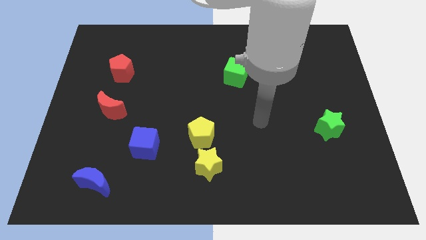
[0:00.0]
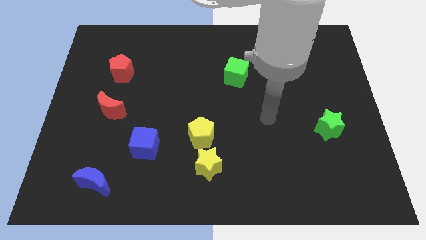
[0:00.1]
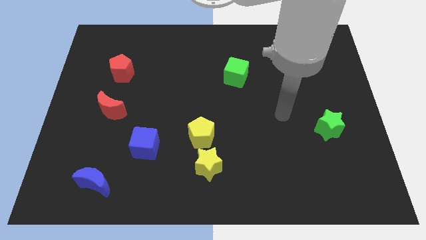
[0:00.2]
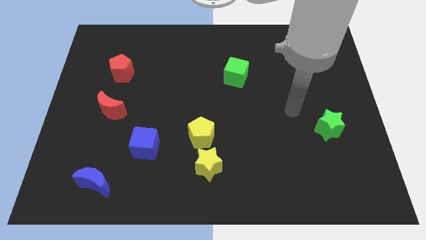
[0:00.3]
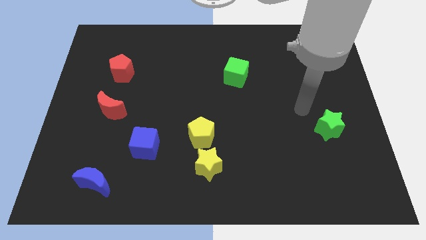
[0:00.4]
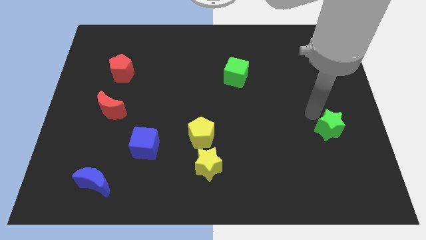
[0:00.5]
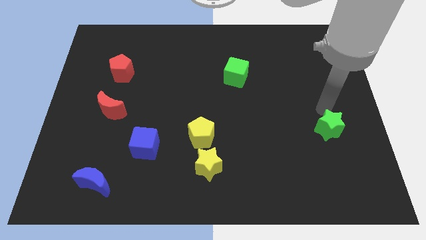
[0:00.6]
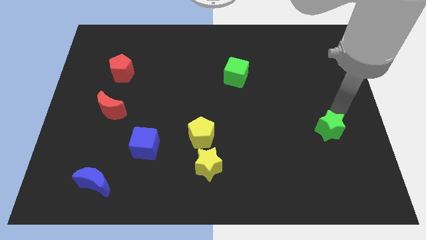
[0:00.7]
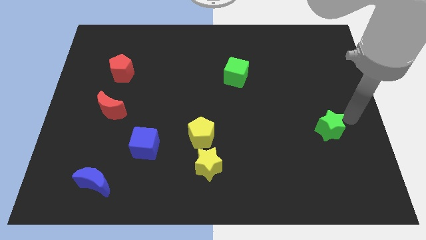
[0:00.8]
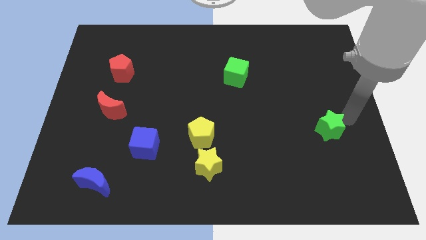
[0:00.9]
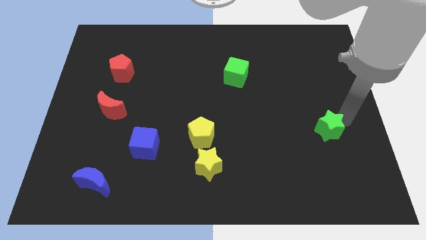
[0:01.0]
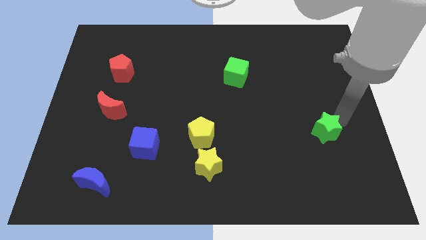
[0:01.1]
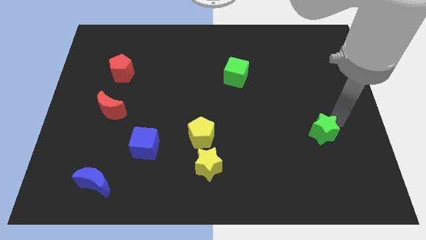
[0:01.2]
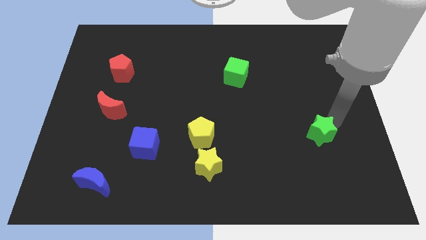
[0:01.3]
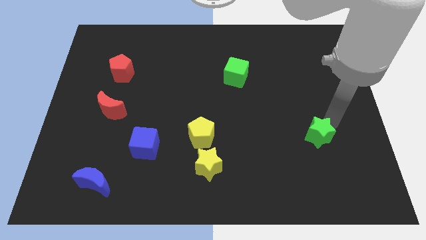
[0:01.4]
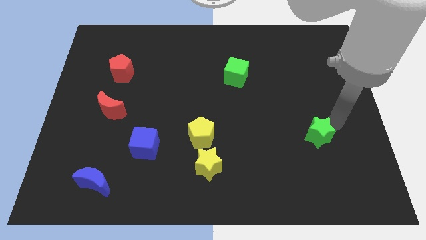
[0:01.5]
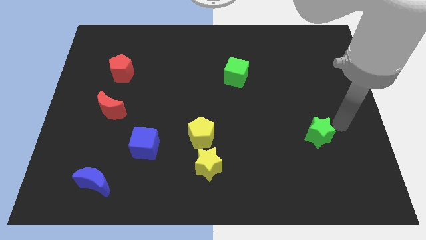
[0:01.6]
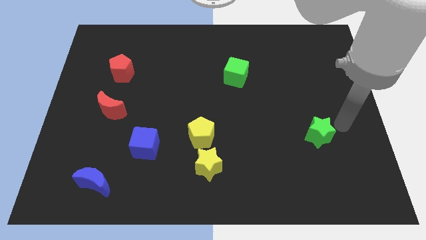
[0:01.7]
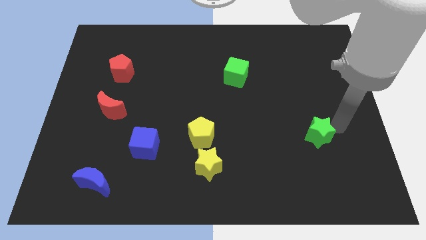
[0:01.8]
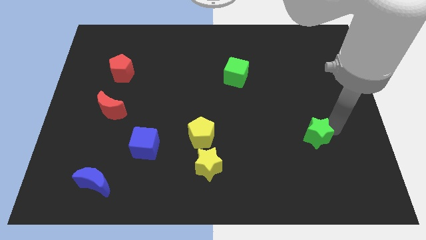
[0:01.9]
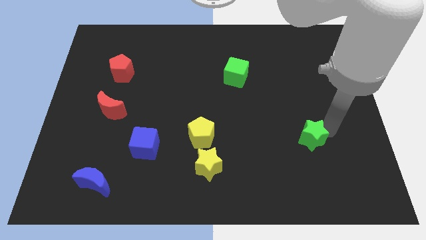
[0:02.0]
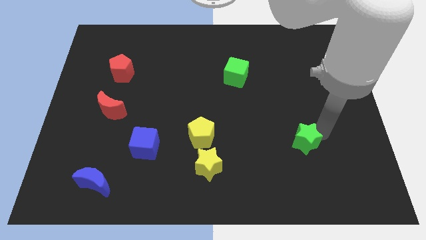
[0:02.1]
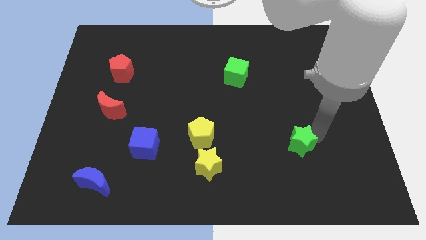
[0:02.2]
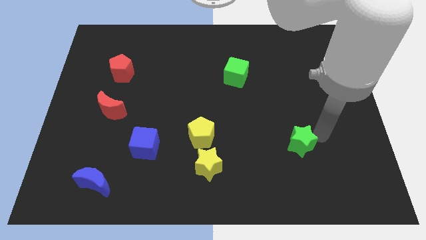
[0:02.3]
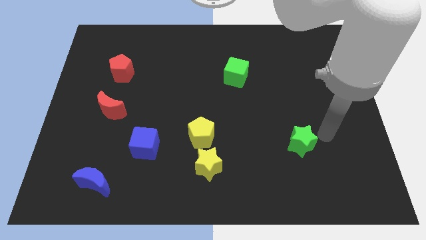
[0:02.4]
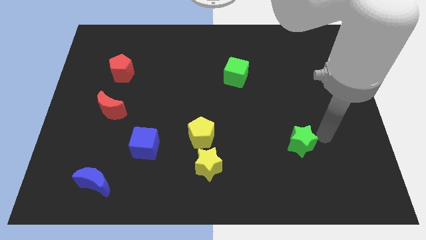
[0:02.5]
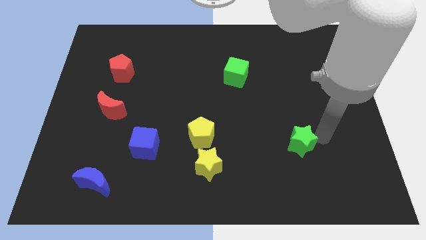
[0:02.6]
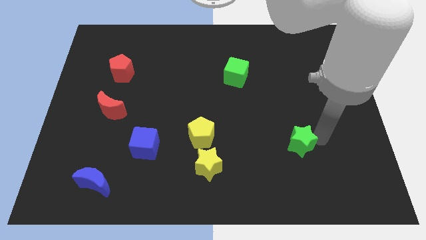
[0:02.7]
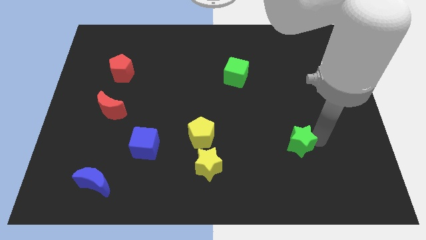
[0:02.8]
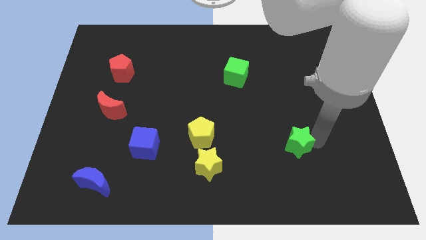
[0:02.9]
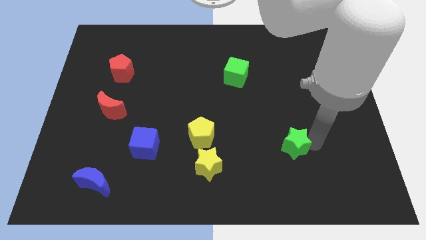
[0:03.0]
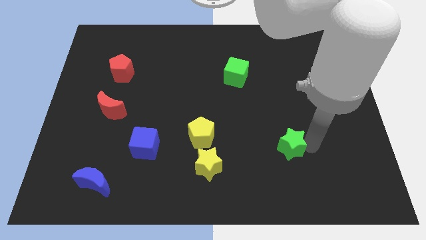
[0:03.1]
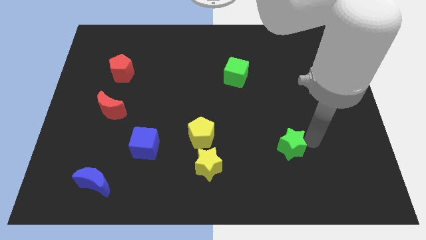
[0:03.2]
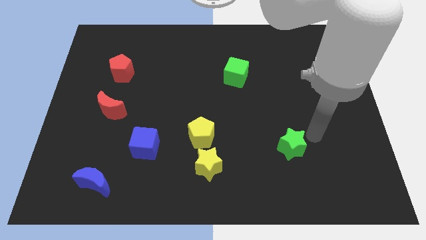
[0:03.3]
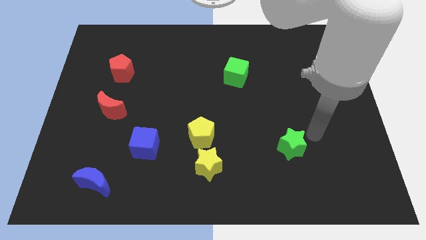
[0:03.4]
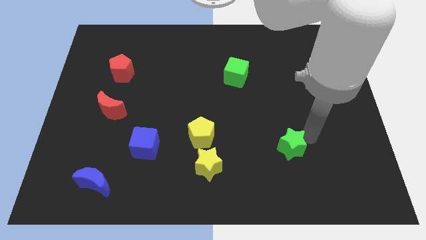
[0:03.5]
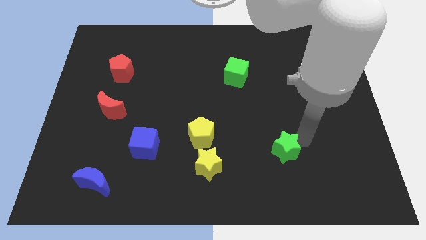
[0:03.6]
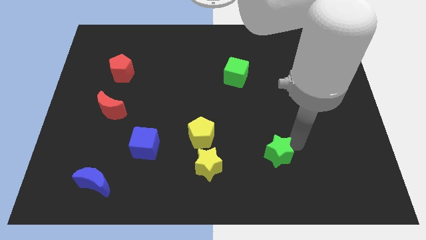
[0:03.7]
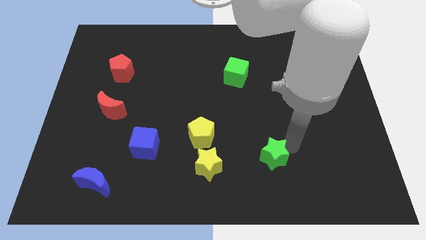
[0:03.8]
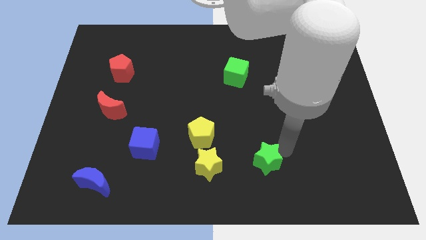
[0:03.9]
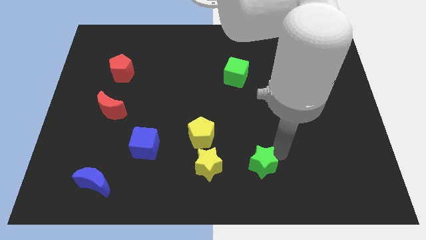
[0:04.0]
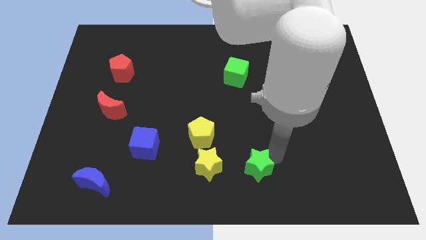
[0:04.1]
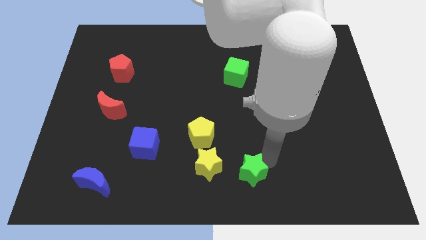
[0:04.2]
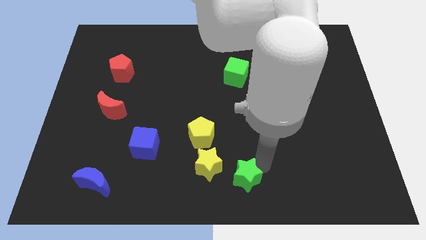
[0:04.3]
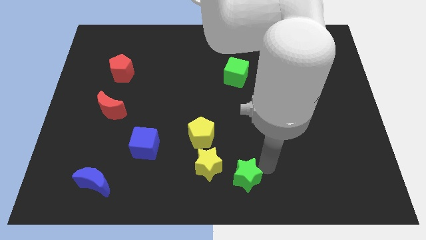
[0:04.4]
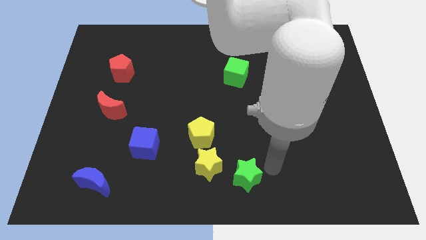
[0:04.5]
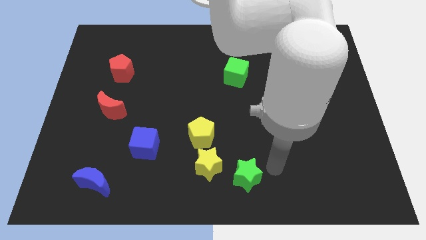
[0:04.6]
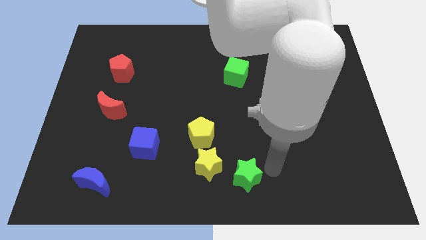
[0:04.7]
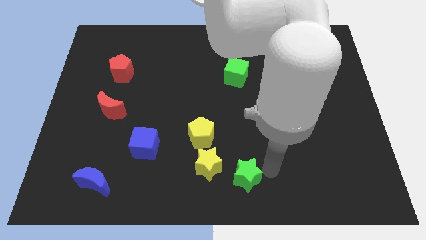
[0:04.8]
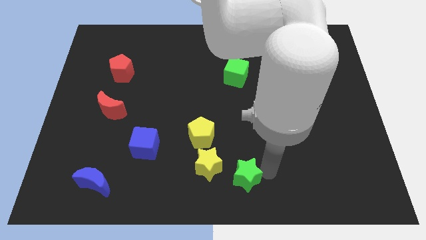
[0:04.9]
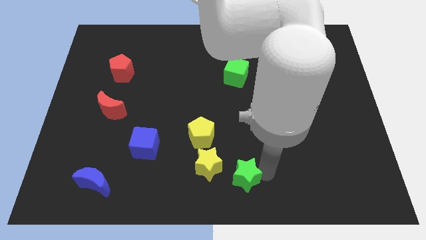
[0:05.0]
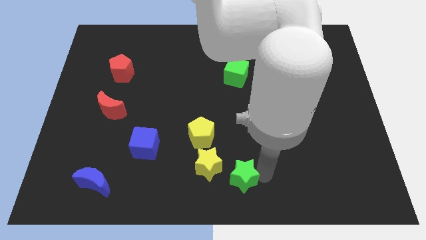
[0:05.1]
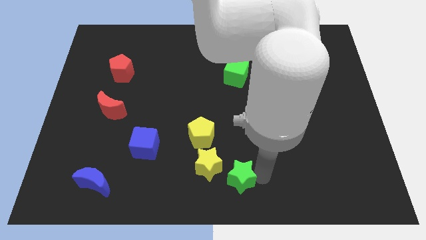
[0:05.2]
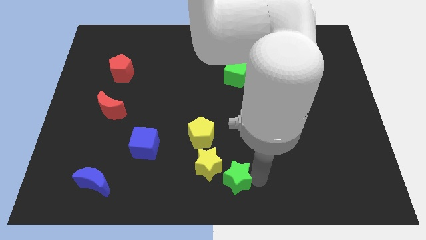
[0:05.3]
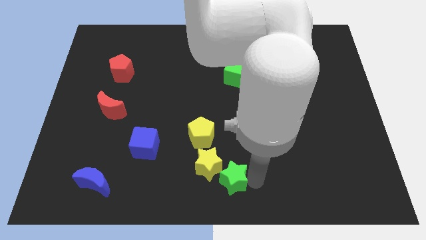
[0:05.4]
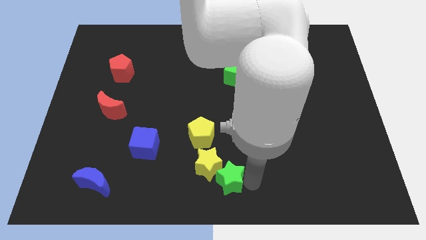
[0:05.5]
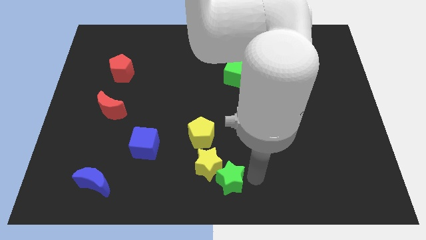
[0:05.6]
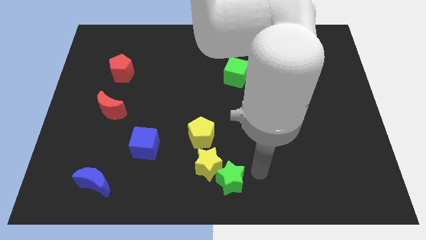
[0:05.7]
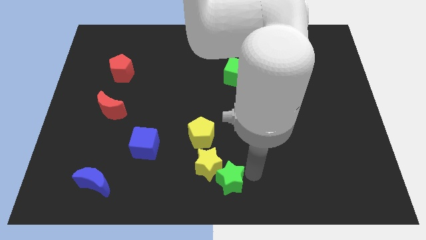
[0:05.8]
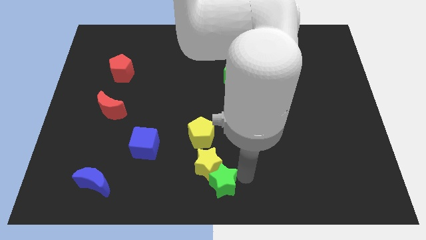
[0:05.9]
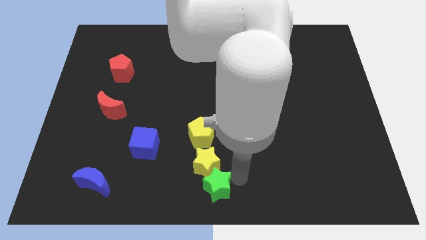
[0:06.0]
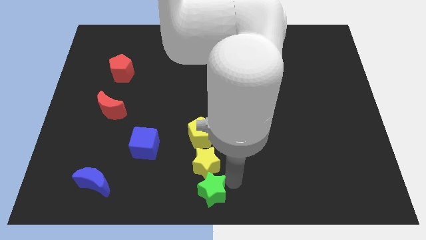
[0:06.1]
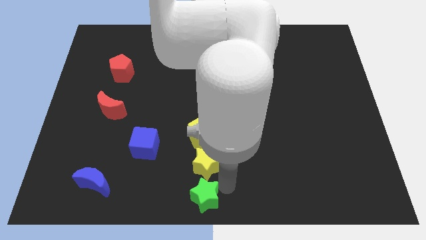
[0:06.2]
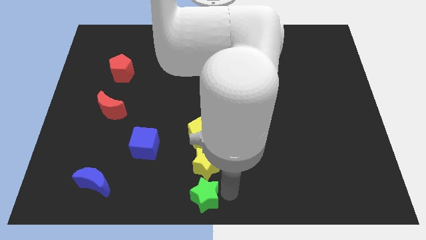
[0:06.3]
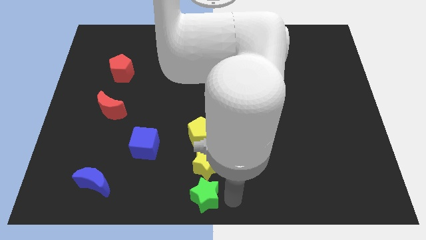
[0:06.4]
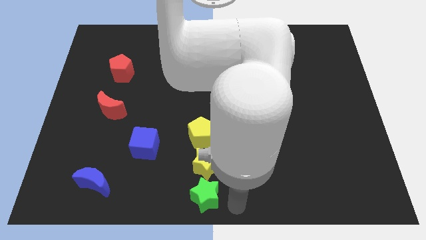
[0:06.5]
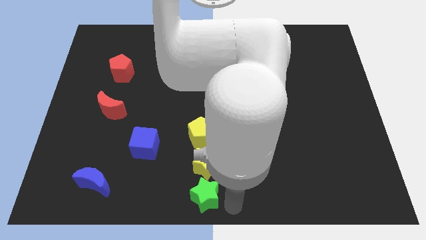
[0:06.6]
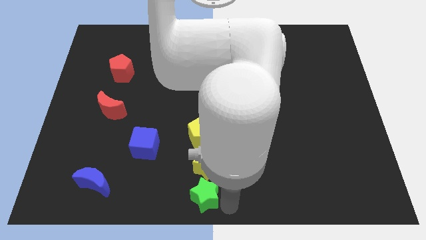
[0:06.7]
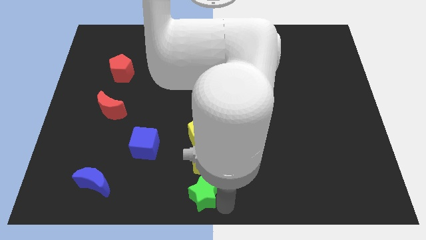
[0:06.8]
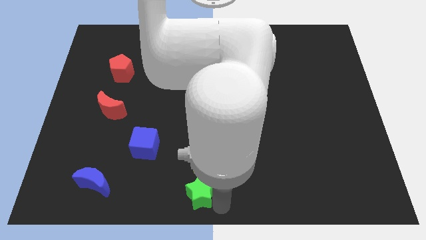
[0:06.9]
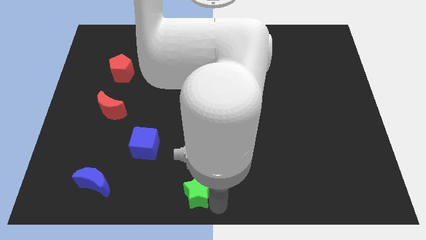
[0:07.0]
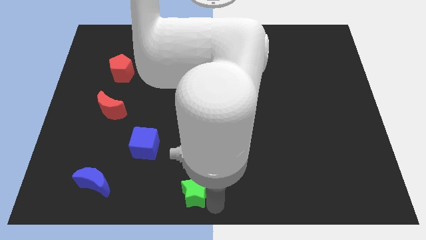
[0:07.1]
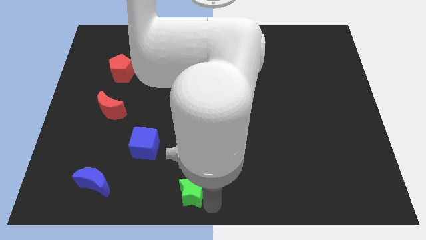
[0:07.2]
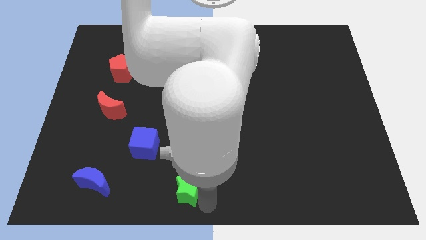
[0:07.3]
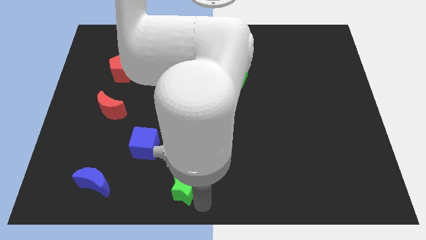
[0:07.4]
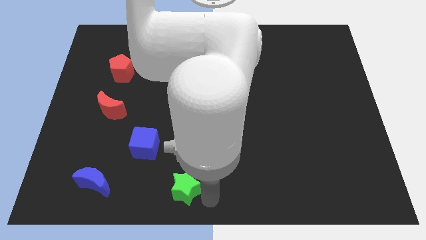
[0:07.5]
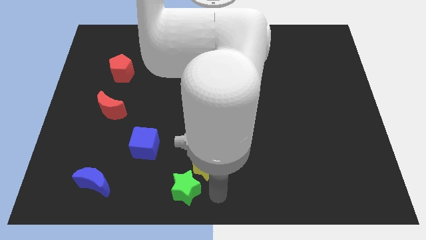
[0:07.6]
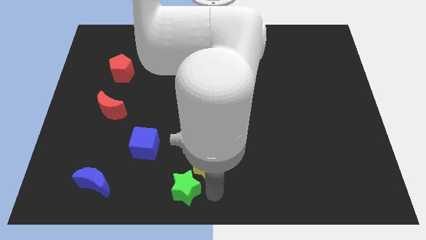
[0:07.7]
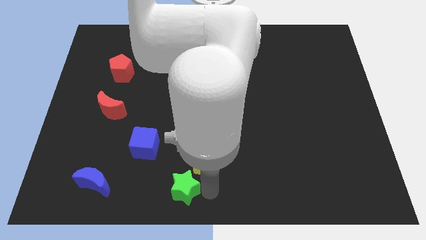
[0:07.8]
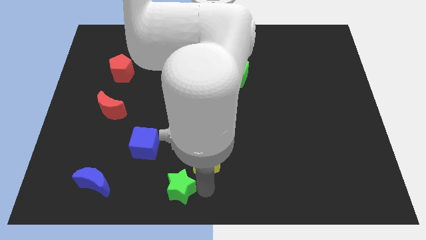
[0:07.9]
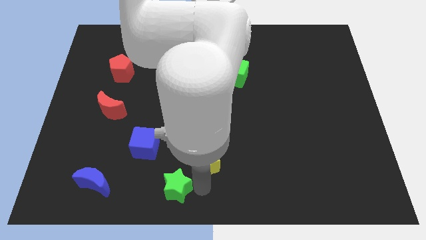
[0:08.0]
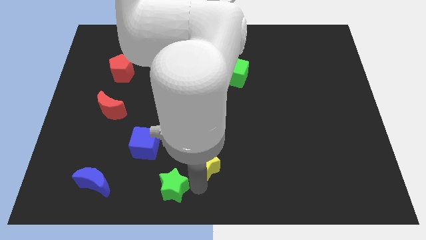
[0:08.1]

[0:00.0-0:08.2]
put the green star right of the blue moon
